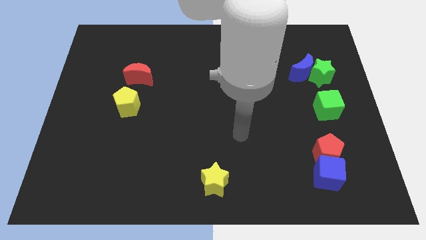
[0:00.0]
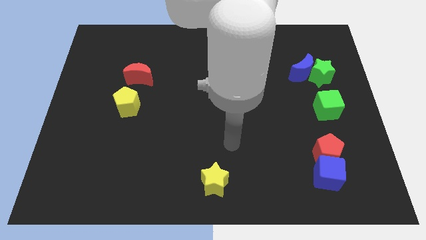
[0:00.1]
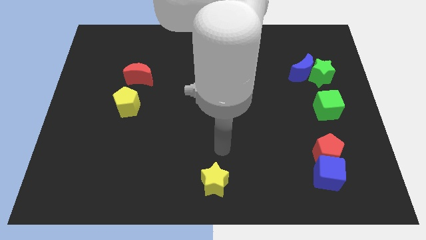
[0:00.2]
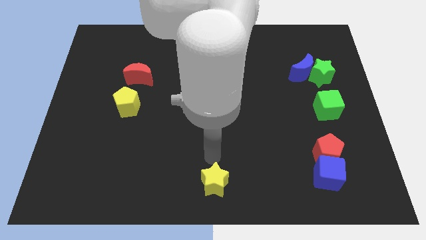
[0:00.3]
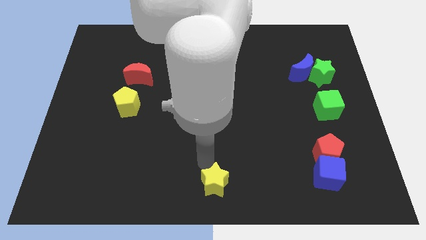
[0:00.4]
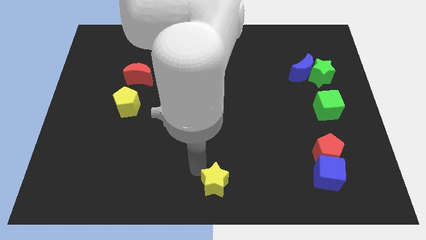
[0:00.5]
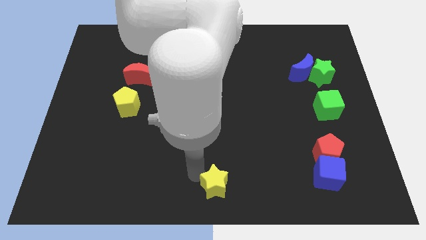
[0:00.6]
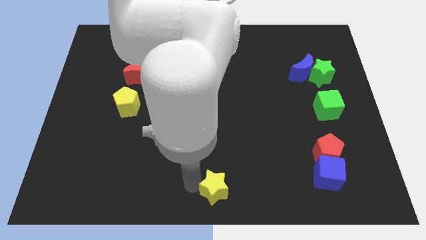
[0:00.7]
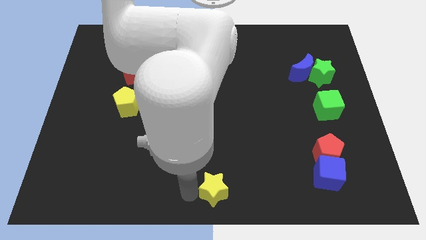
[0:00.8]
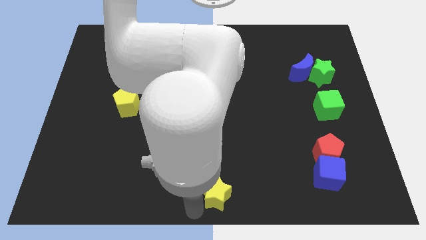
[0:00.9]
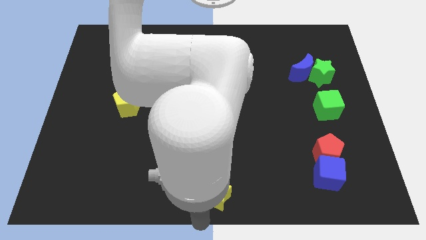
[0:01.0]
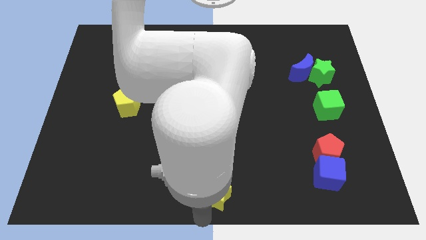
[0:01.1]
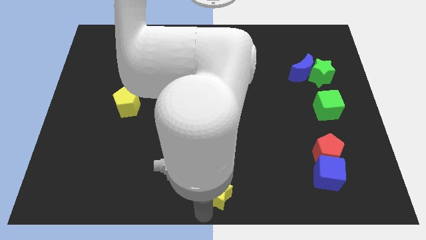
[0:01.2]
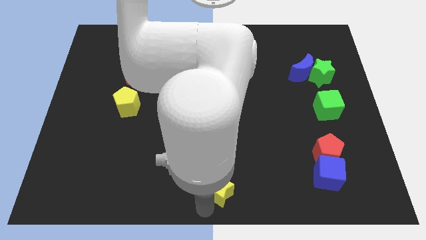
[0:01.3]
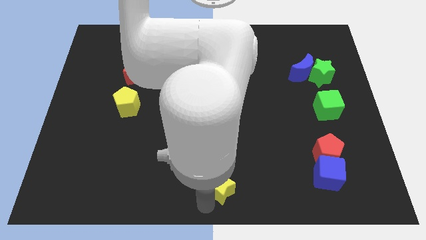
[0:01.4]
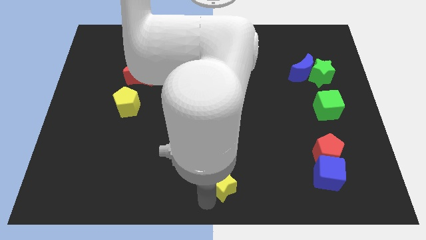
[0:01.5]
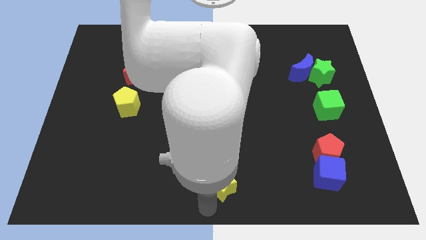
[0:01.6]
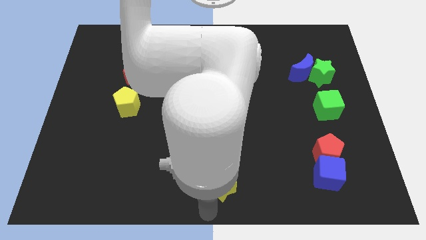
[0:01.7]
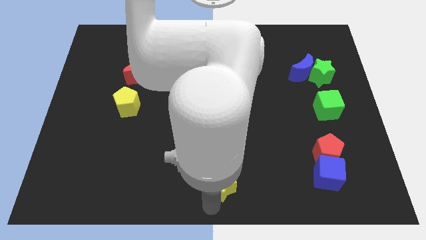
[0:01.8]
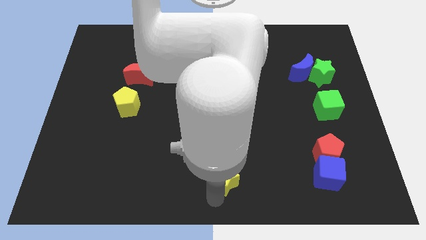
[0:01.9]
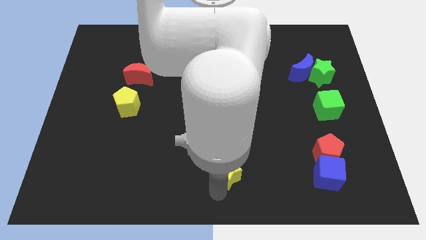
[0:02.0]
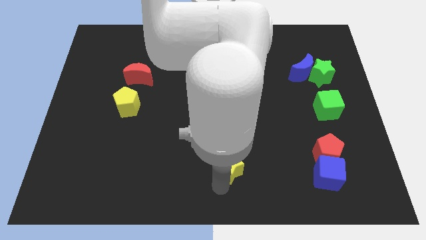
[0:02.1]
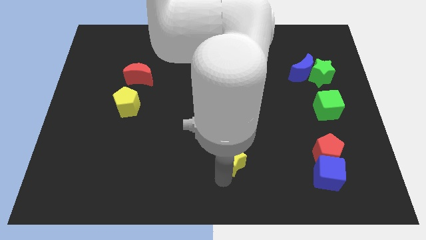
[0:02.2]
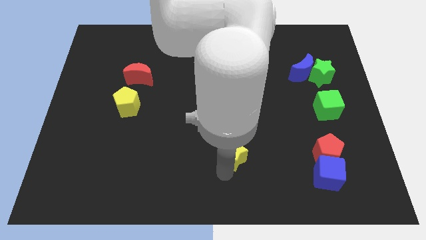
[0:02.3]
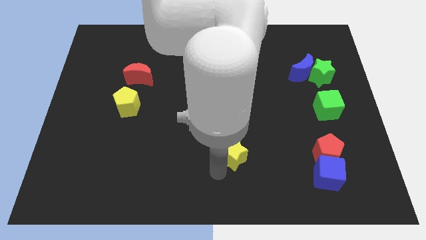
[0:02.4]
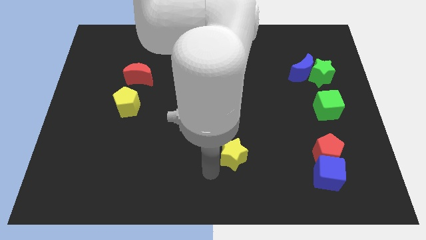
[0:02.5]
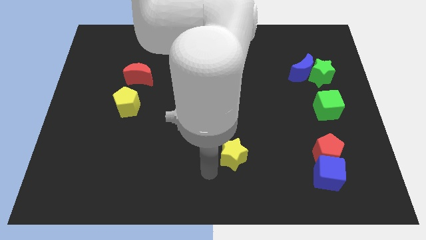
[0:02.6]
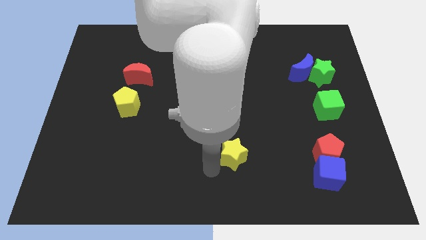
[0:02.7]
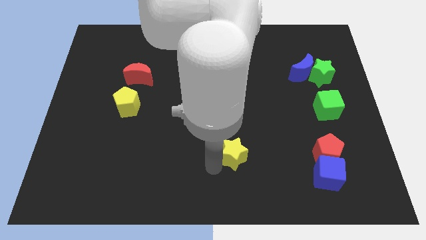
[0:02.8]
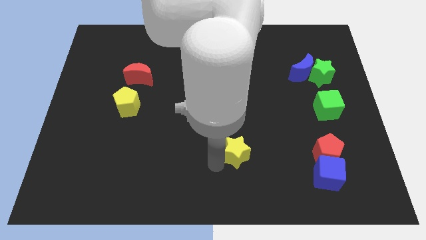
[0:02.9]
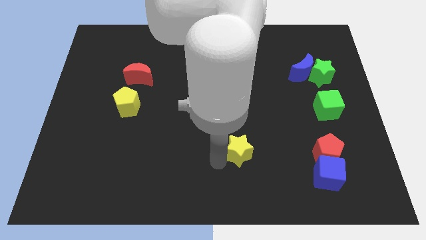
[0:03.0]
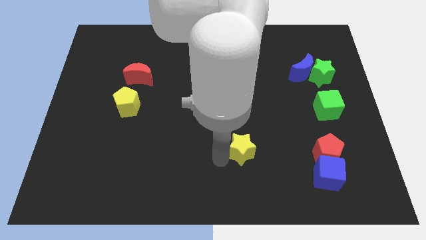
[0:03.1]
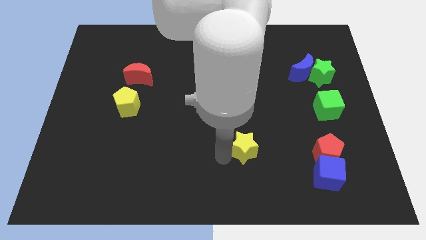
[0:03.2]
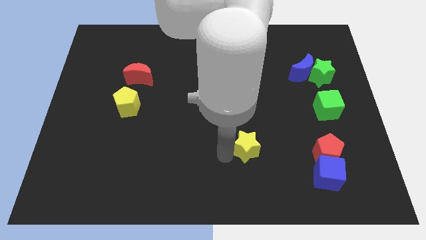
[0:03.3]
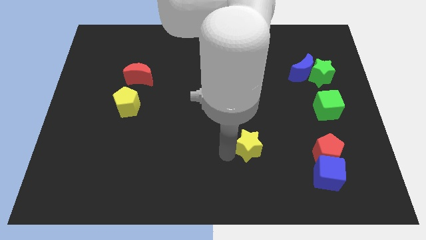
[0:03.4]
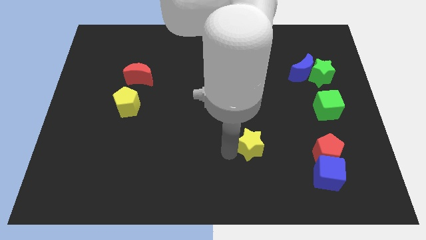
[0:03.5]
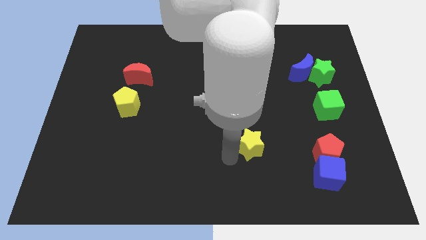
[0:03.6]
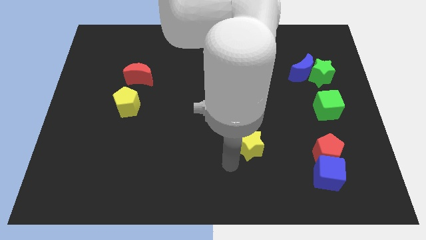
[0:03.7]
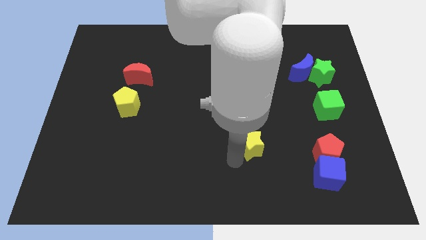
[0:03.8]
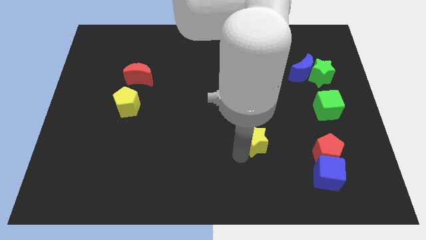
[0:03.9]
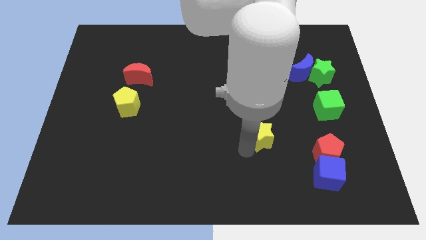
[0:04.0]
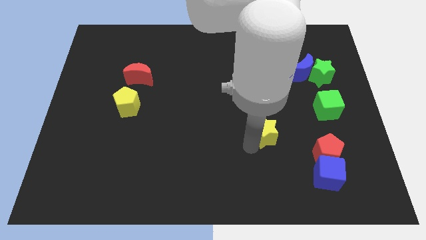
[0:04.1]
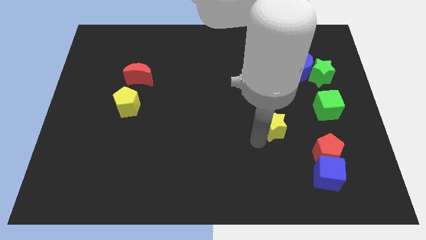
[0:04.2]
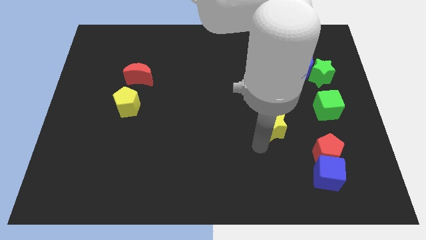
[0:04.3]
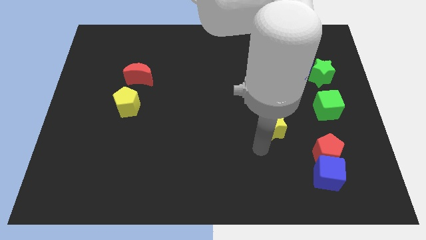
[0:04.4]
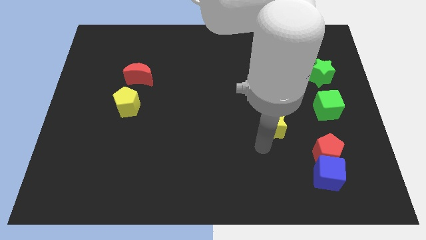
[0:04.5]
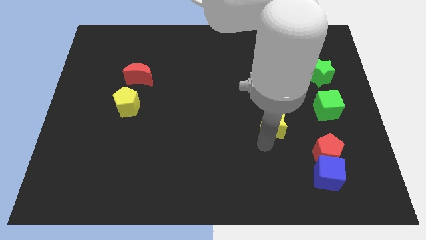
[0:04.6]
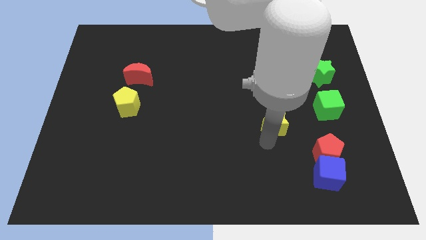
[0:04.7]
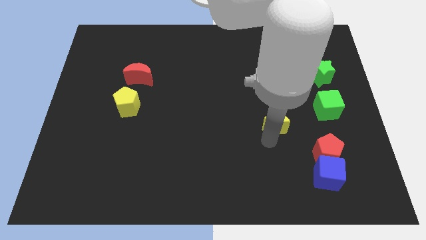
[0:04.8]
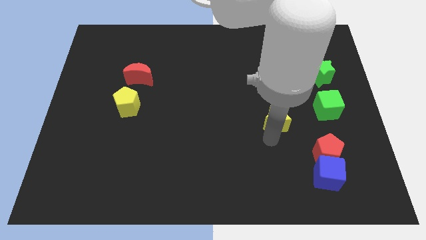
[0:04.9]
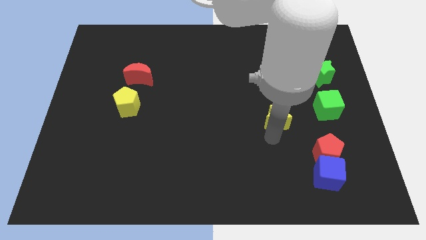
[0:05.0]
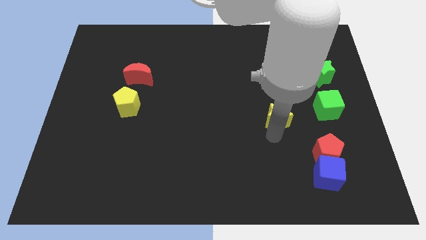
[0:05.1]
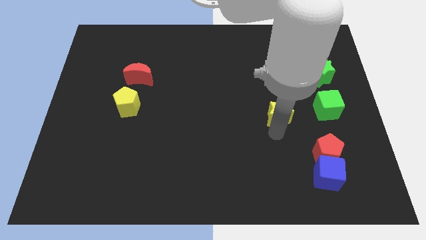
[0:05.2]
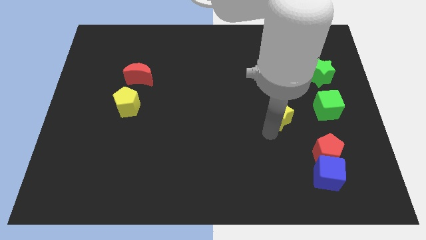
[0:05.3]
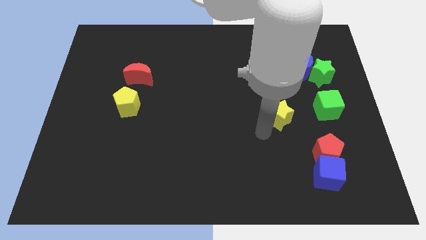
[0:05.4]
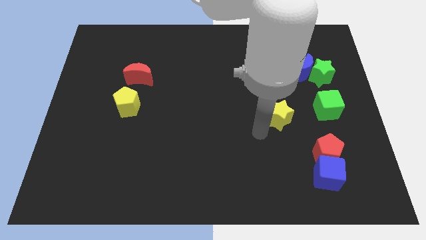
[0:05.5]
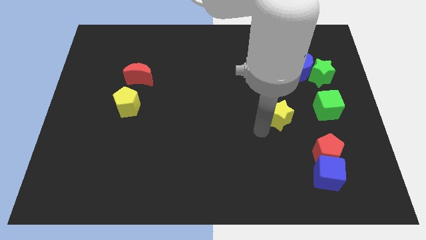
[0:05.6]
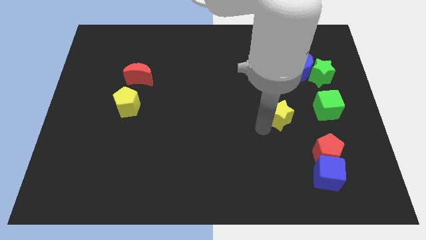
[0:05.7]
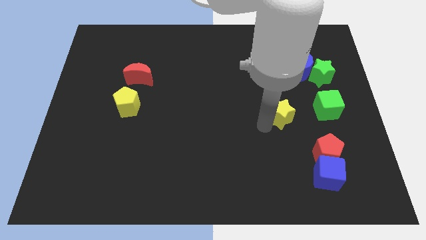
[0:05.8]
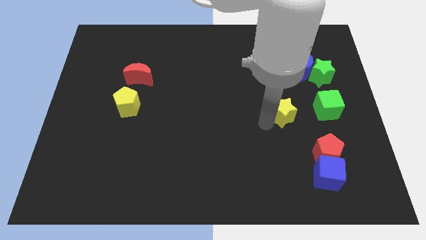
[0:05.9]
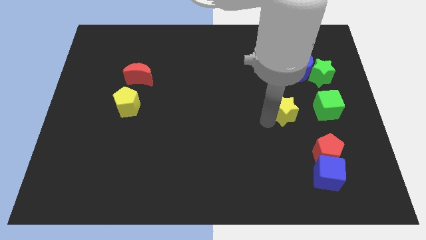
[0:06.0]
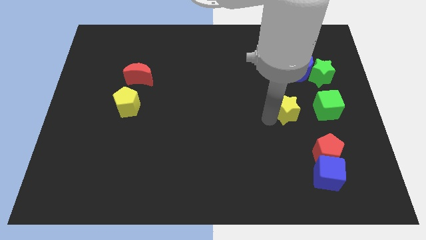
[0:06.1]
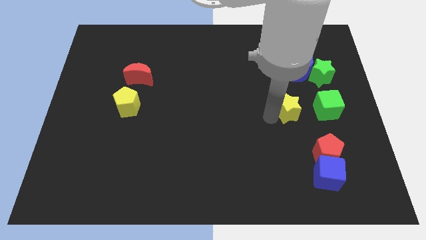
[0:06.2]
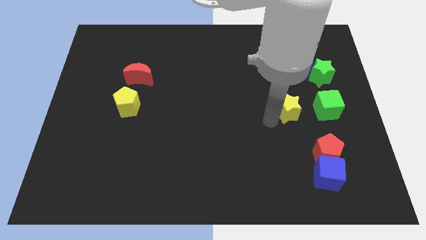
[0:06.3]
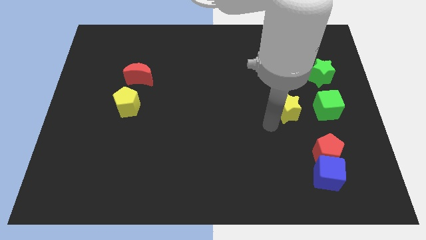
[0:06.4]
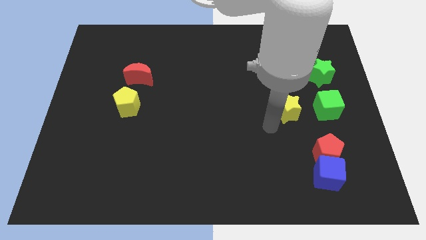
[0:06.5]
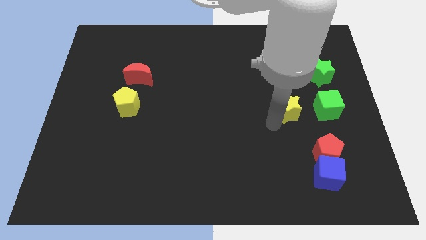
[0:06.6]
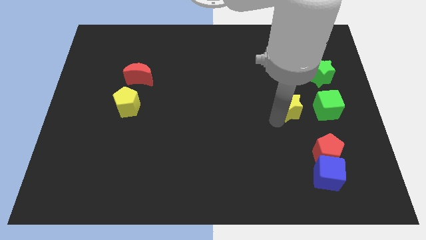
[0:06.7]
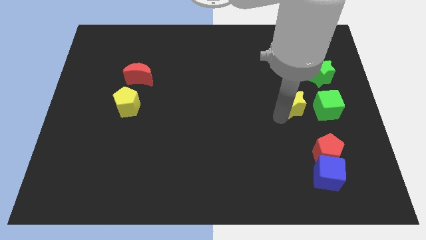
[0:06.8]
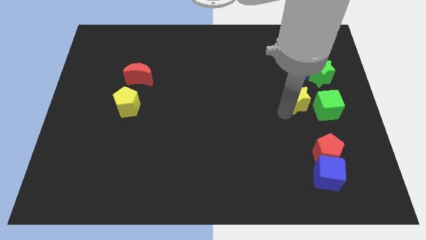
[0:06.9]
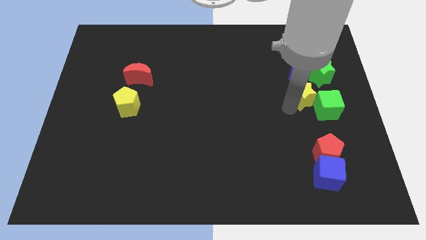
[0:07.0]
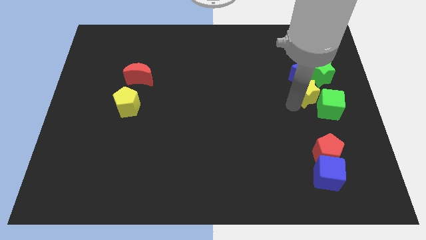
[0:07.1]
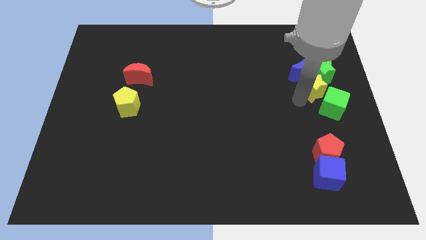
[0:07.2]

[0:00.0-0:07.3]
slide the yellow star towards the green star
